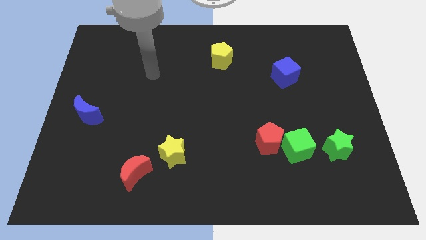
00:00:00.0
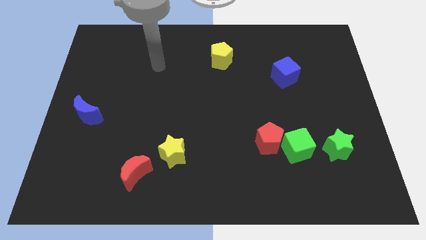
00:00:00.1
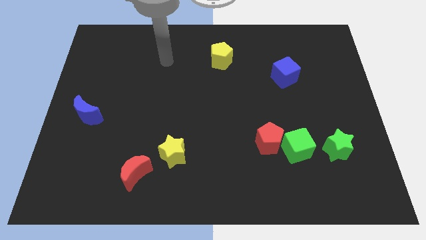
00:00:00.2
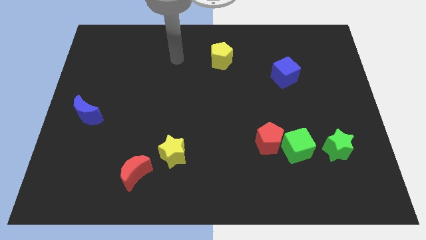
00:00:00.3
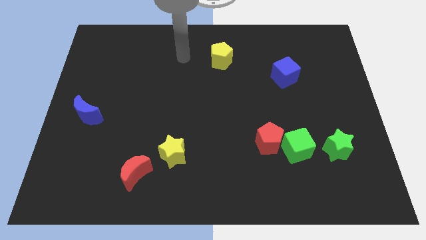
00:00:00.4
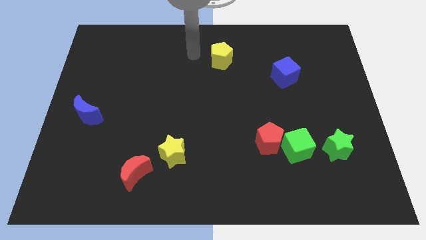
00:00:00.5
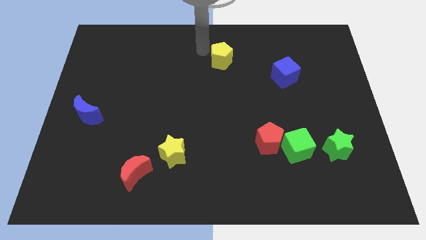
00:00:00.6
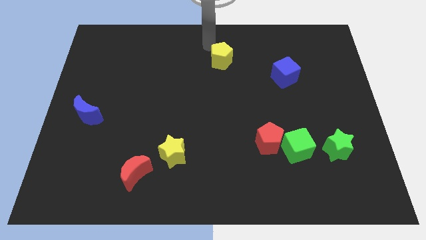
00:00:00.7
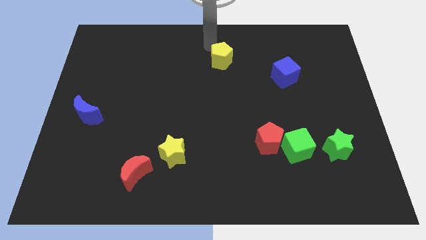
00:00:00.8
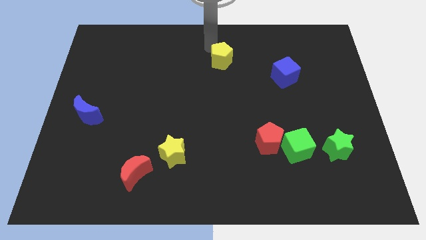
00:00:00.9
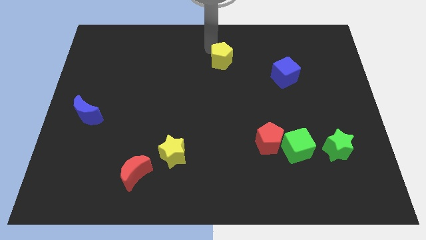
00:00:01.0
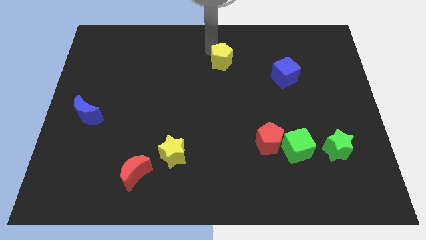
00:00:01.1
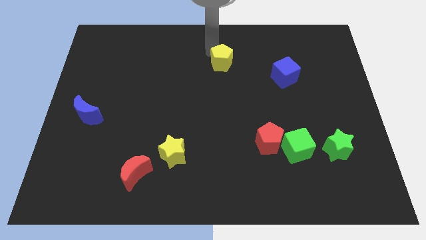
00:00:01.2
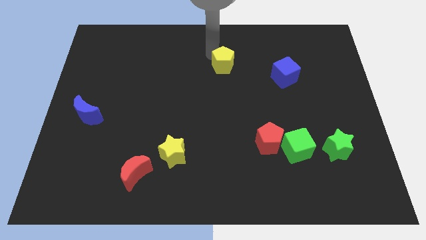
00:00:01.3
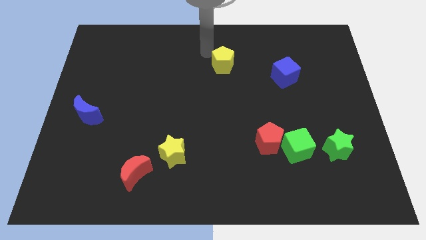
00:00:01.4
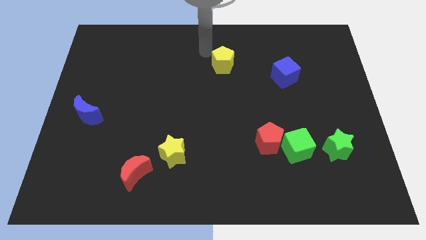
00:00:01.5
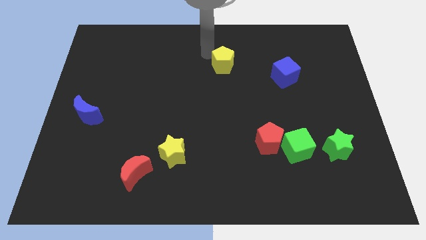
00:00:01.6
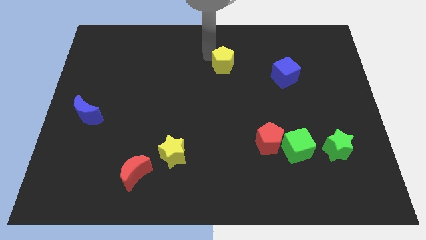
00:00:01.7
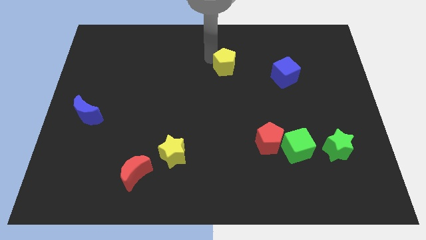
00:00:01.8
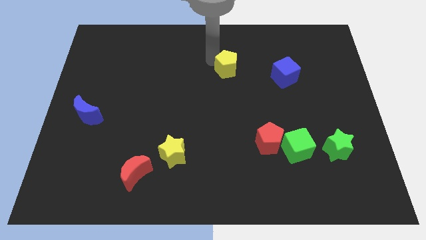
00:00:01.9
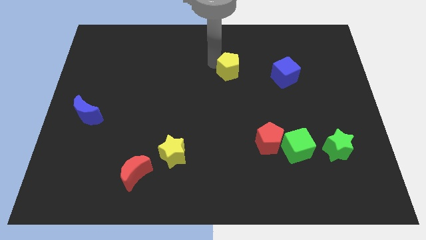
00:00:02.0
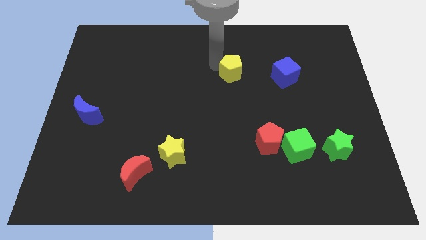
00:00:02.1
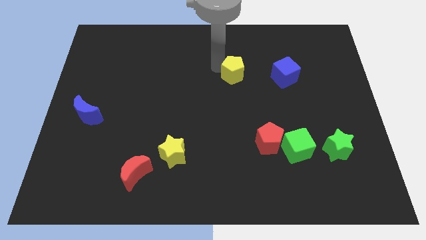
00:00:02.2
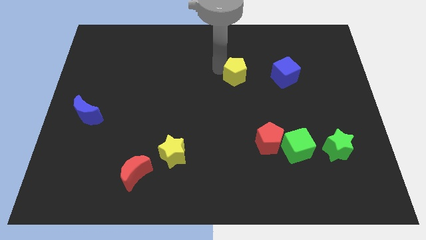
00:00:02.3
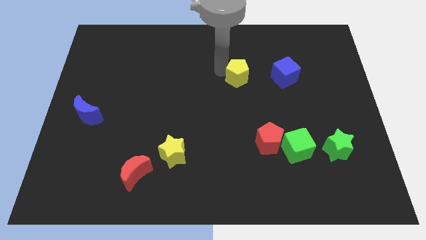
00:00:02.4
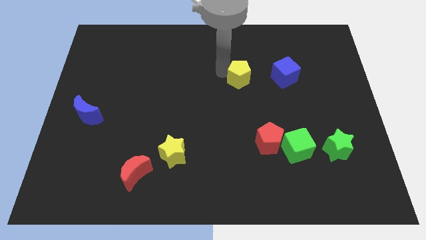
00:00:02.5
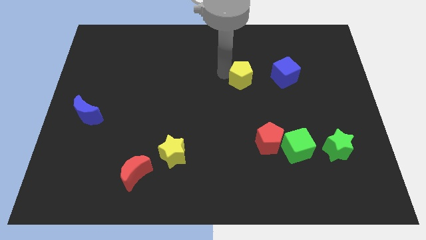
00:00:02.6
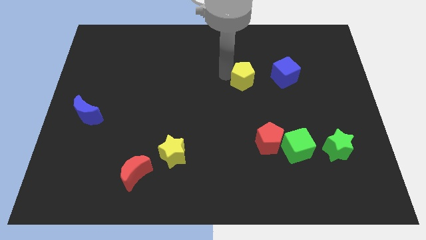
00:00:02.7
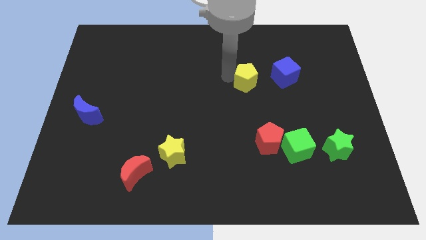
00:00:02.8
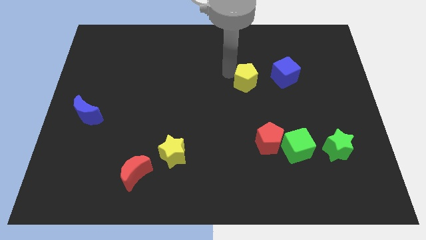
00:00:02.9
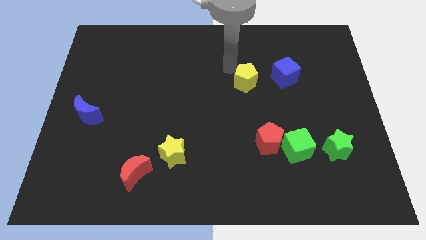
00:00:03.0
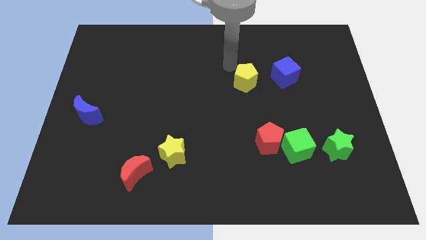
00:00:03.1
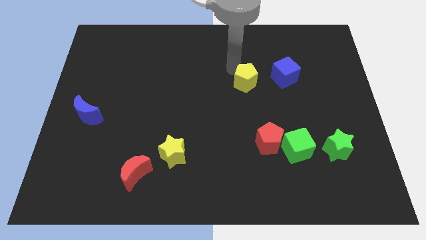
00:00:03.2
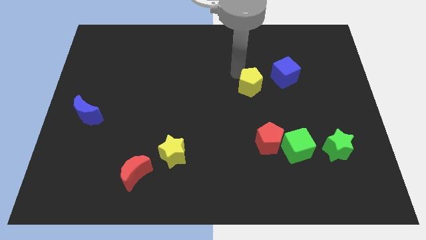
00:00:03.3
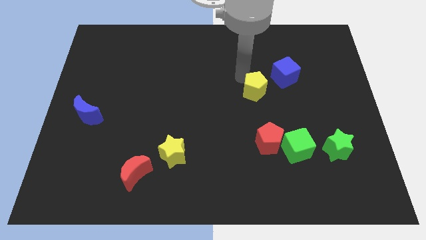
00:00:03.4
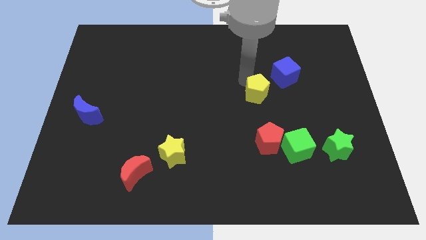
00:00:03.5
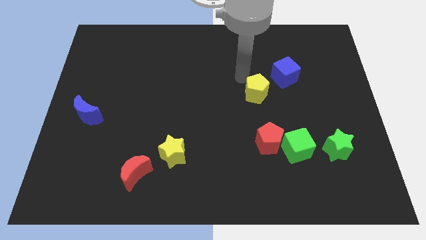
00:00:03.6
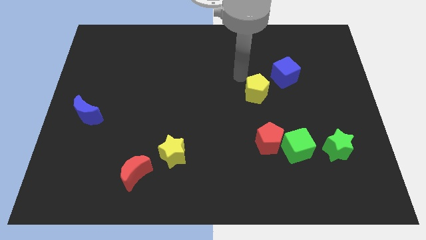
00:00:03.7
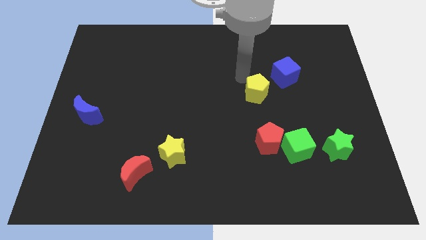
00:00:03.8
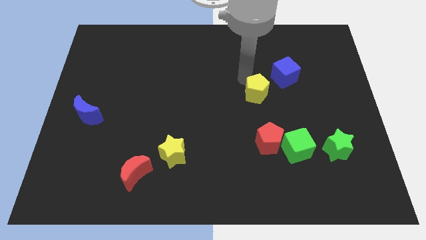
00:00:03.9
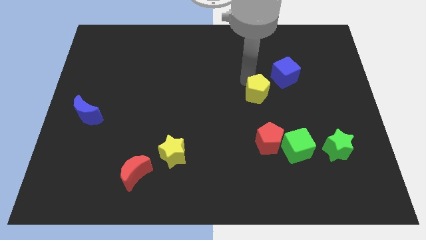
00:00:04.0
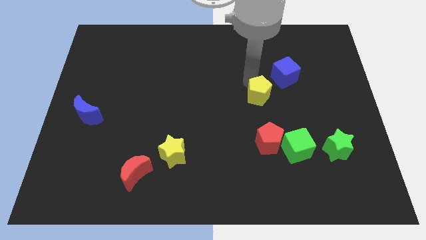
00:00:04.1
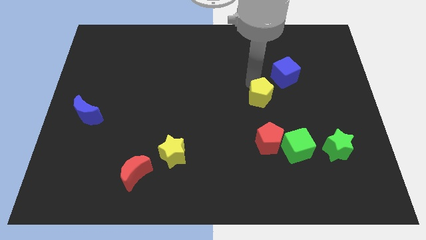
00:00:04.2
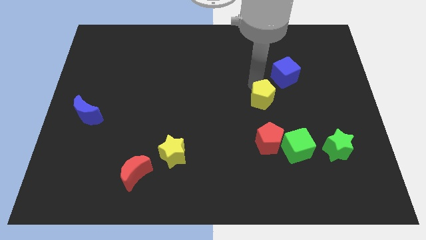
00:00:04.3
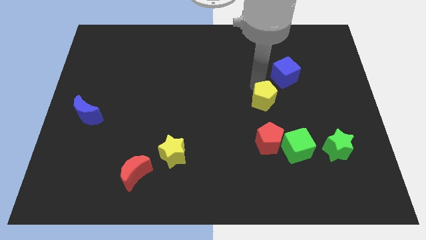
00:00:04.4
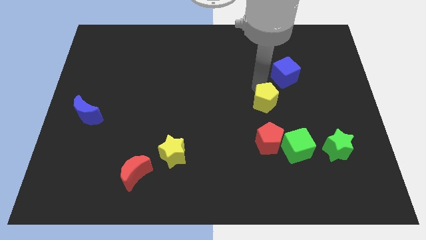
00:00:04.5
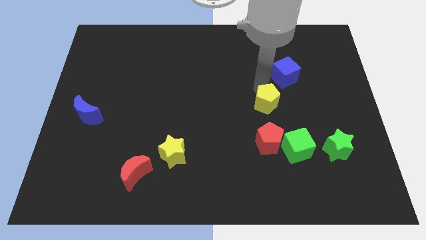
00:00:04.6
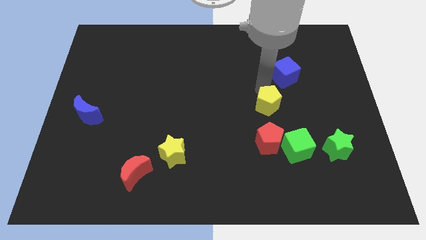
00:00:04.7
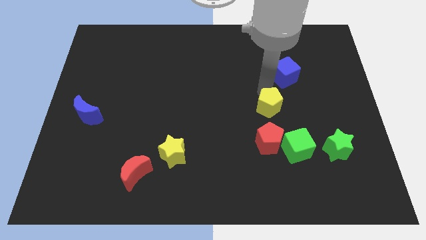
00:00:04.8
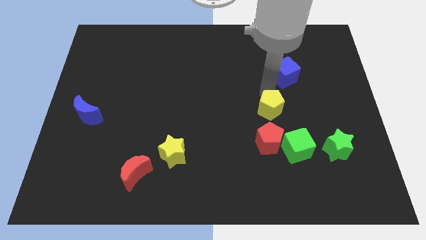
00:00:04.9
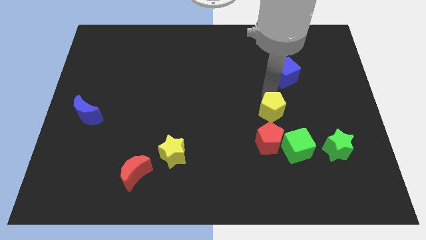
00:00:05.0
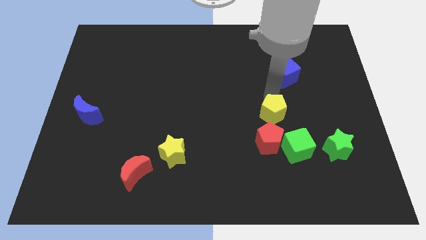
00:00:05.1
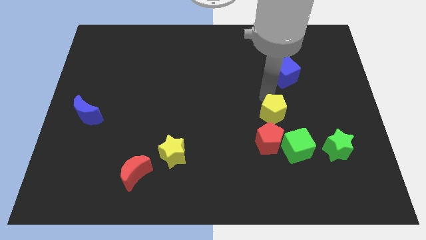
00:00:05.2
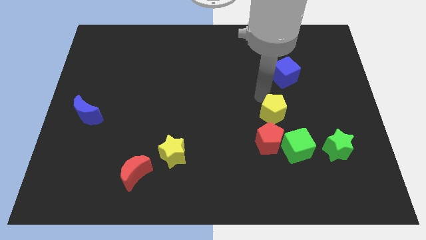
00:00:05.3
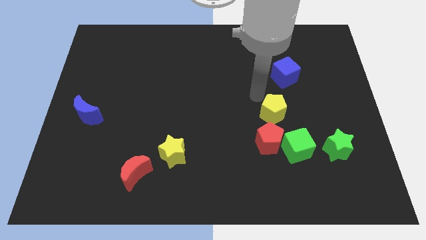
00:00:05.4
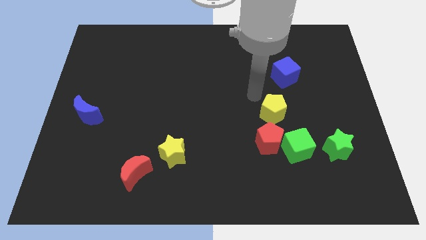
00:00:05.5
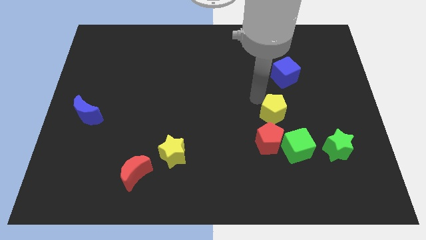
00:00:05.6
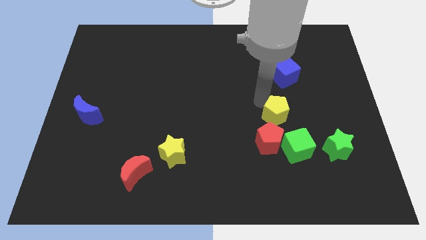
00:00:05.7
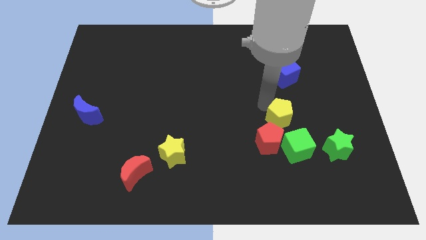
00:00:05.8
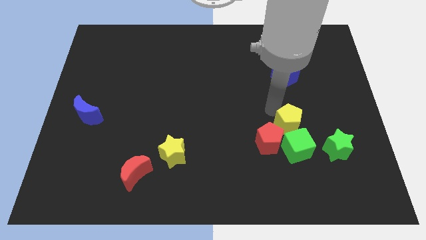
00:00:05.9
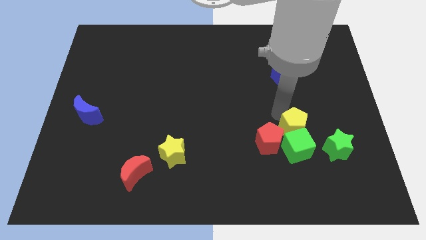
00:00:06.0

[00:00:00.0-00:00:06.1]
push the yellow pentagon close to the green cube

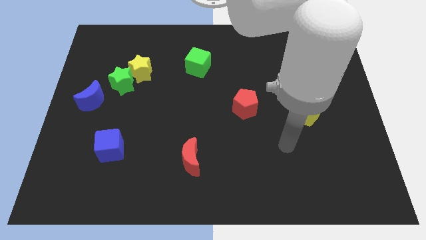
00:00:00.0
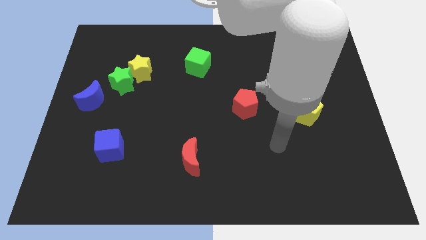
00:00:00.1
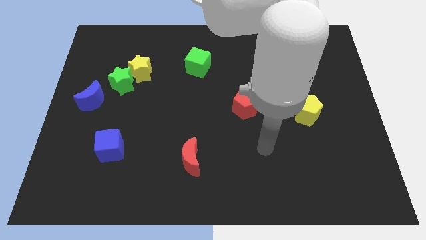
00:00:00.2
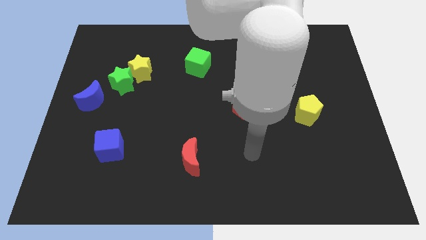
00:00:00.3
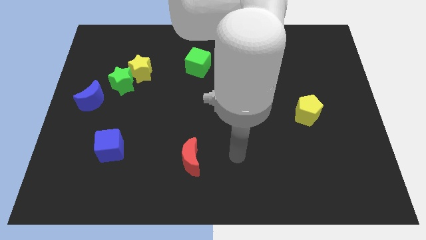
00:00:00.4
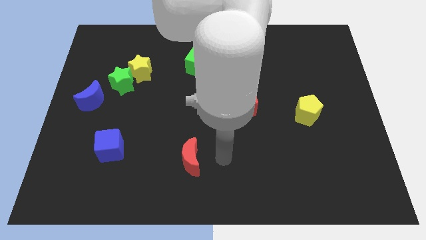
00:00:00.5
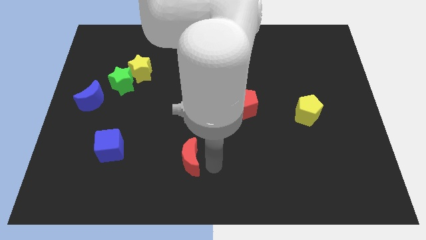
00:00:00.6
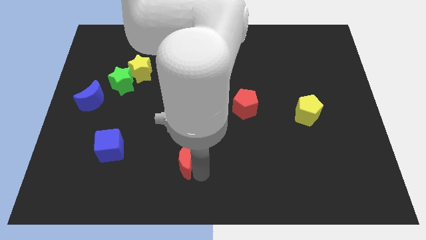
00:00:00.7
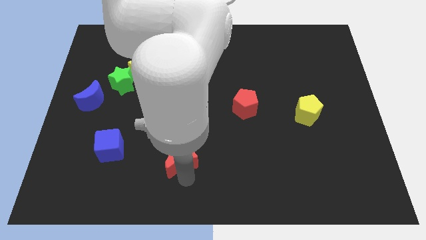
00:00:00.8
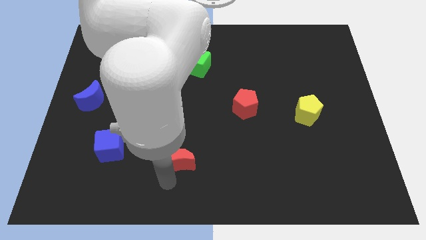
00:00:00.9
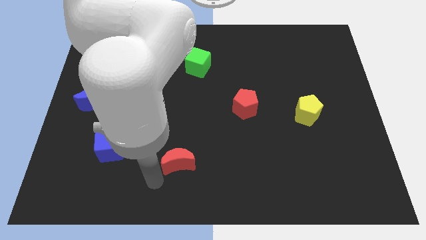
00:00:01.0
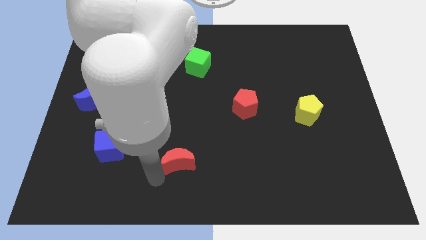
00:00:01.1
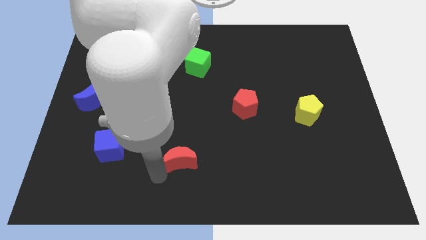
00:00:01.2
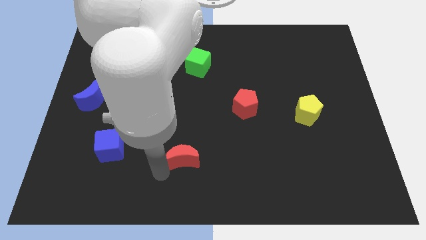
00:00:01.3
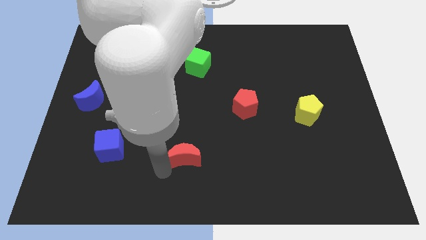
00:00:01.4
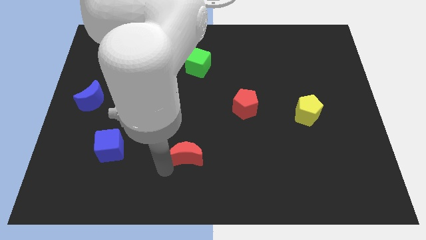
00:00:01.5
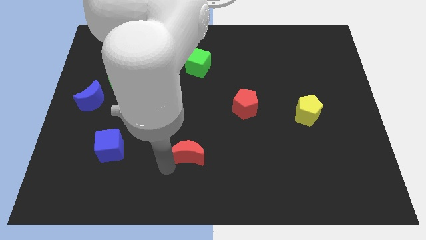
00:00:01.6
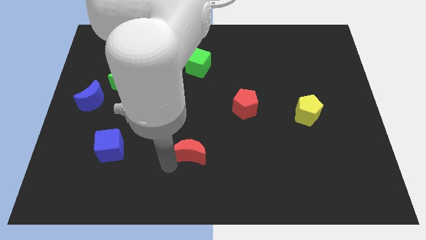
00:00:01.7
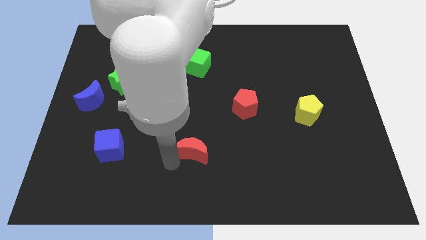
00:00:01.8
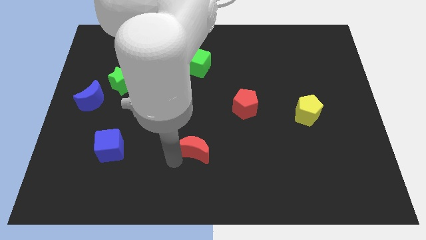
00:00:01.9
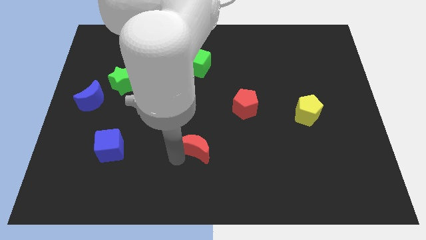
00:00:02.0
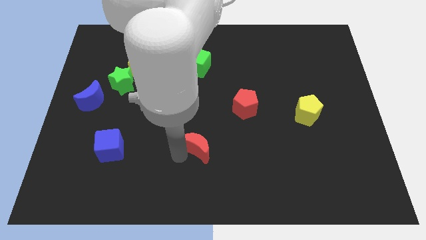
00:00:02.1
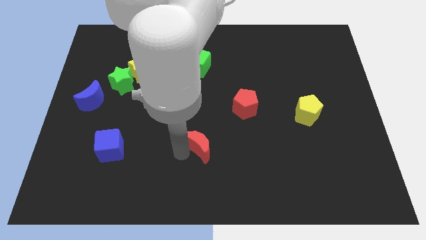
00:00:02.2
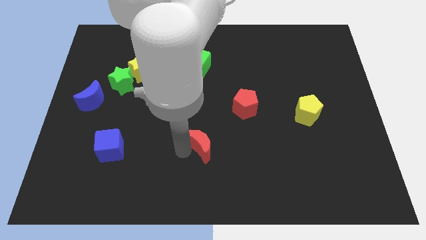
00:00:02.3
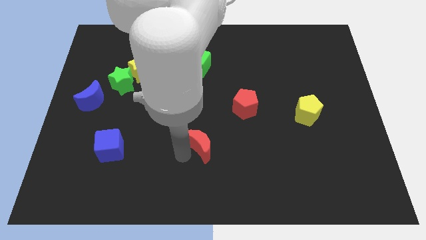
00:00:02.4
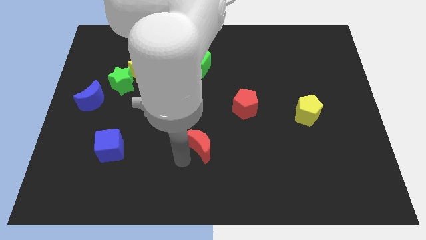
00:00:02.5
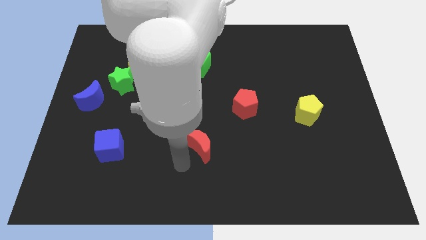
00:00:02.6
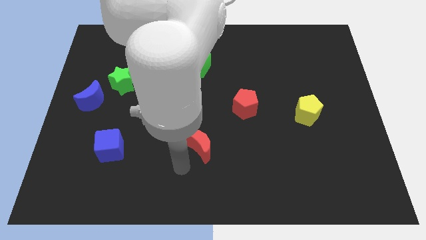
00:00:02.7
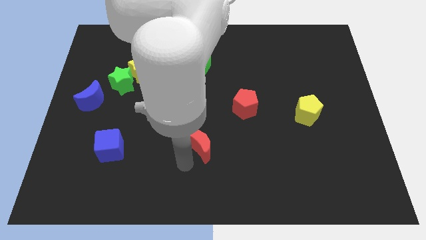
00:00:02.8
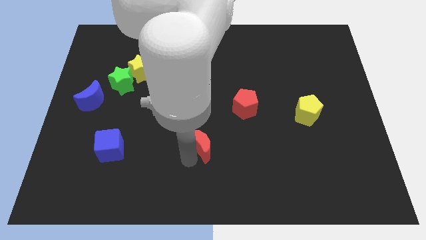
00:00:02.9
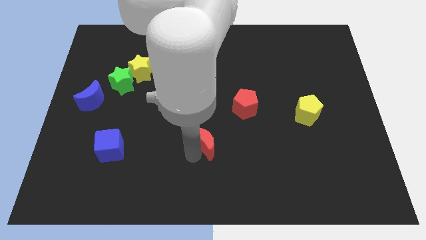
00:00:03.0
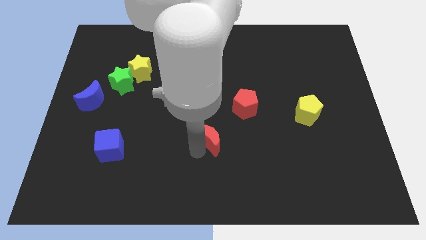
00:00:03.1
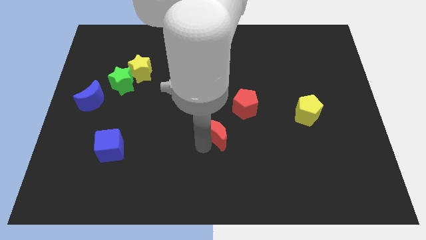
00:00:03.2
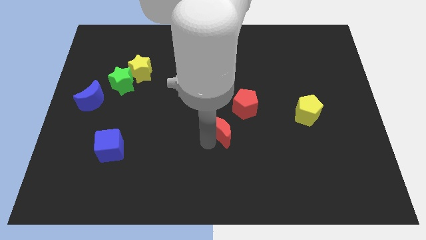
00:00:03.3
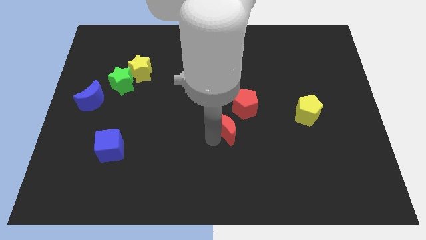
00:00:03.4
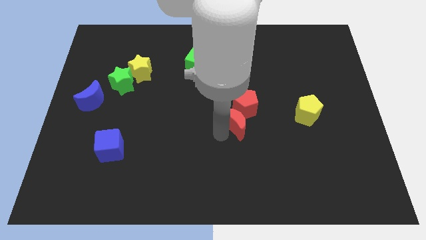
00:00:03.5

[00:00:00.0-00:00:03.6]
put the red moon towards the red pentagon
